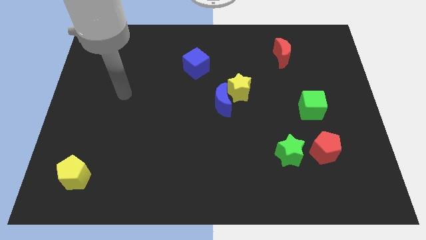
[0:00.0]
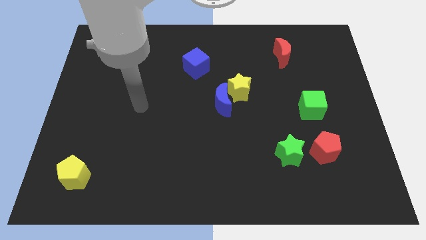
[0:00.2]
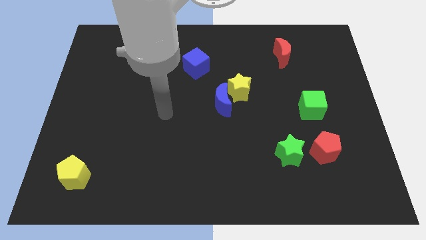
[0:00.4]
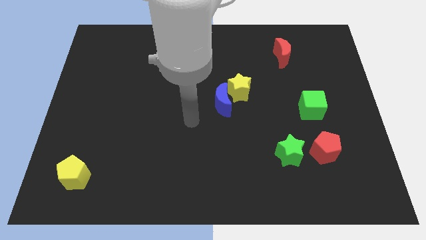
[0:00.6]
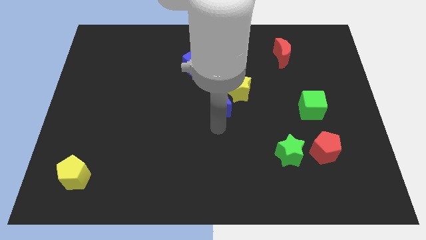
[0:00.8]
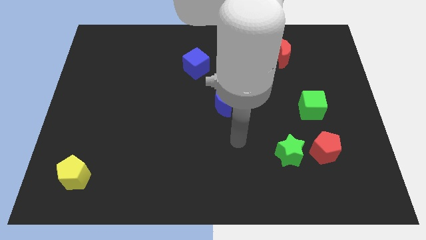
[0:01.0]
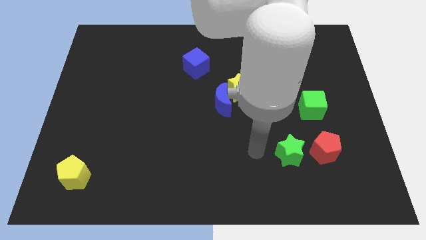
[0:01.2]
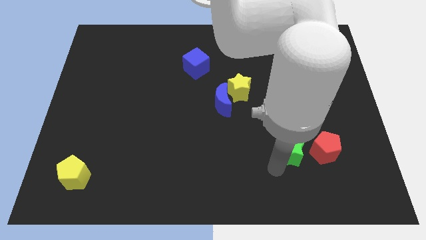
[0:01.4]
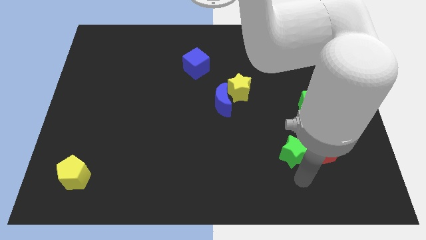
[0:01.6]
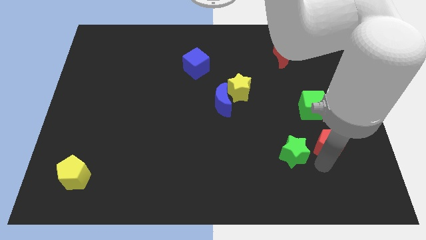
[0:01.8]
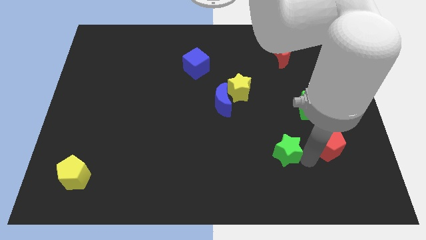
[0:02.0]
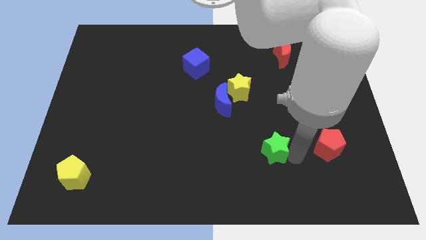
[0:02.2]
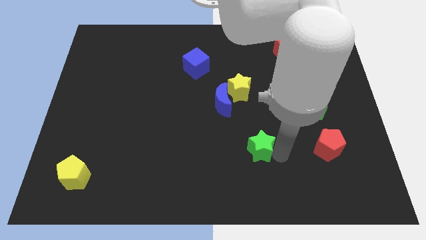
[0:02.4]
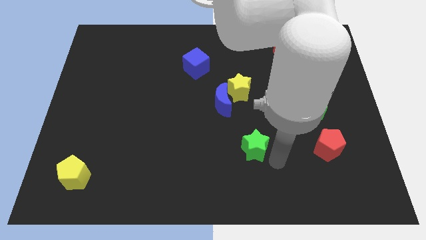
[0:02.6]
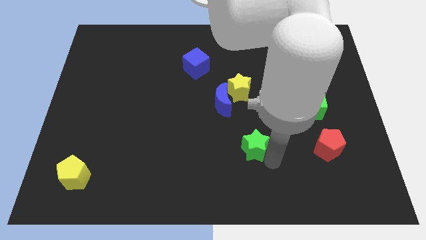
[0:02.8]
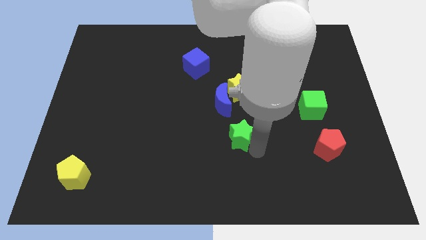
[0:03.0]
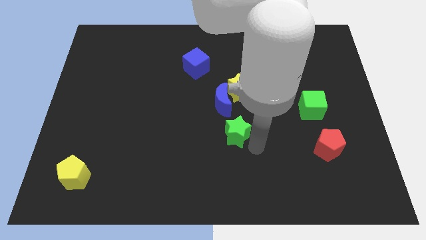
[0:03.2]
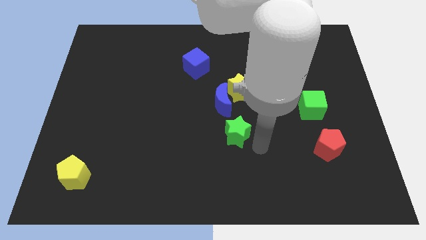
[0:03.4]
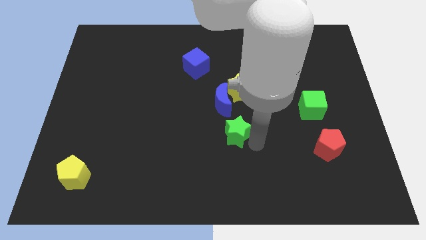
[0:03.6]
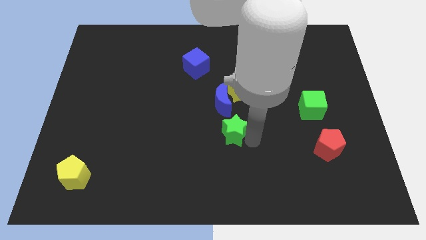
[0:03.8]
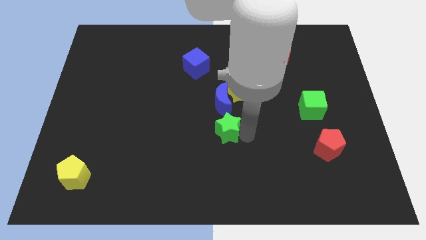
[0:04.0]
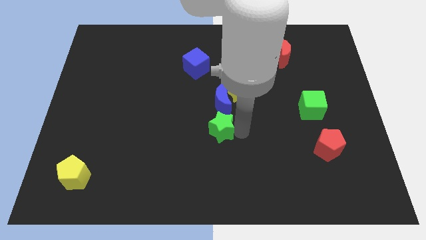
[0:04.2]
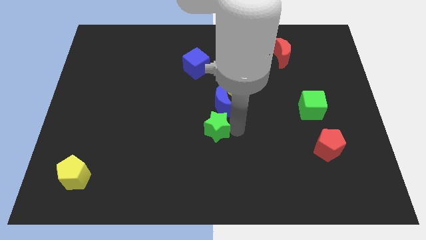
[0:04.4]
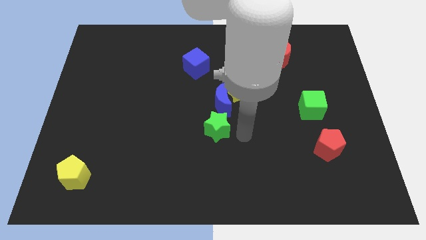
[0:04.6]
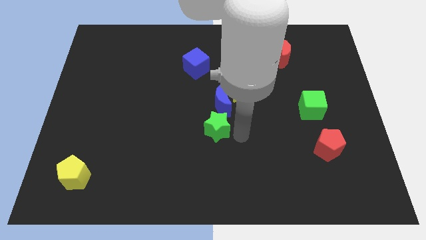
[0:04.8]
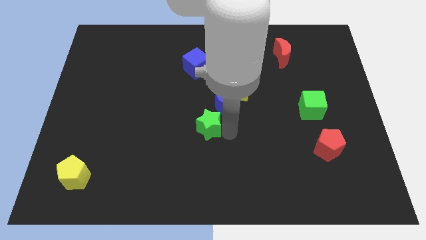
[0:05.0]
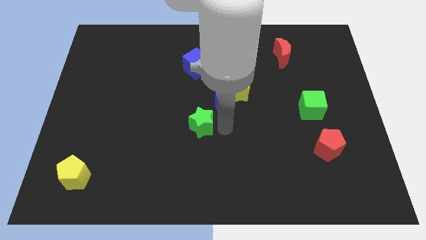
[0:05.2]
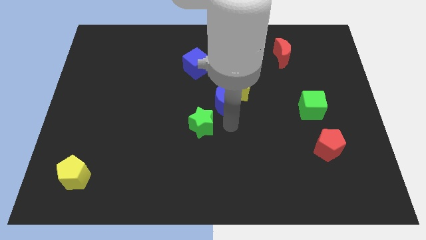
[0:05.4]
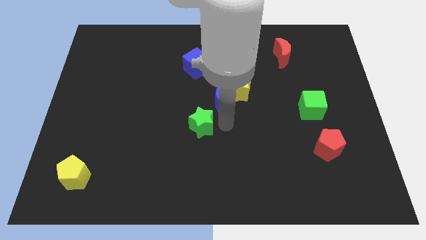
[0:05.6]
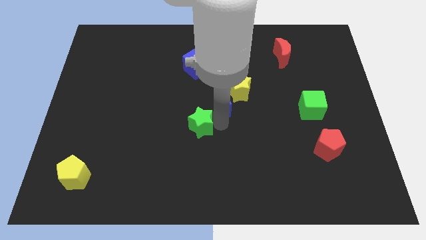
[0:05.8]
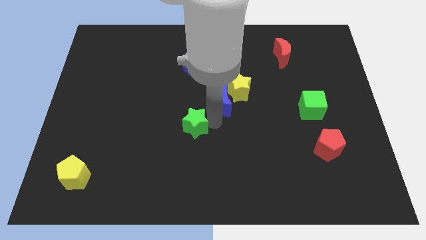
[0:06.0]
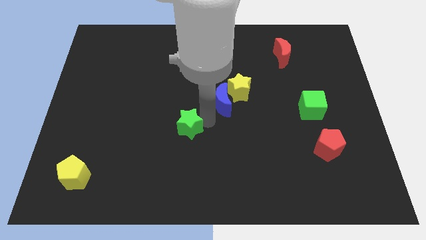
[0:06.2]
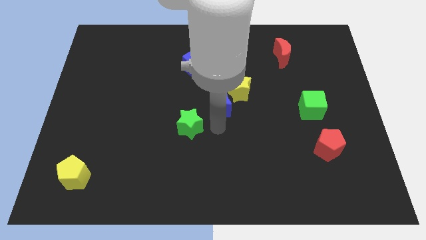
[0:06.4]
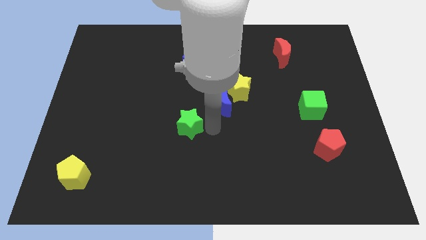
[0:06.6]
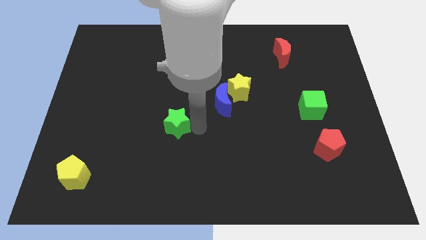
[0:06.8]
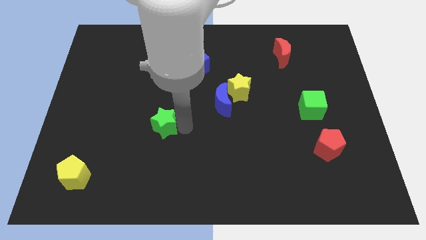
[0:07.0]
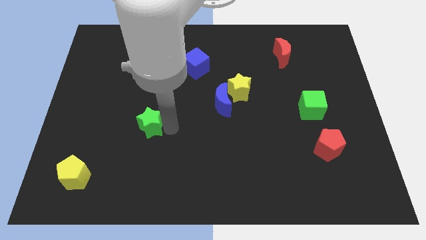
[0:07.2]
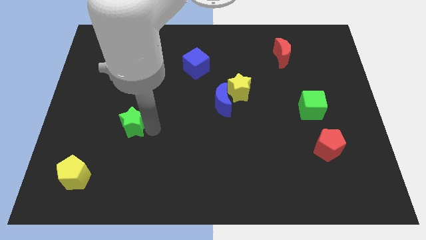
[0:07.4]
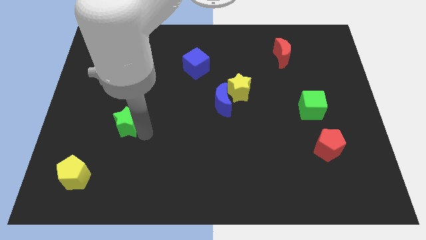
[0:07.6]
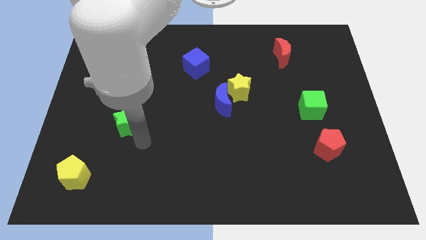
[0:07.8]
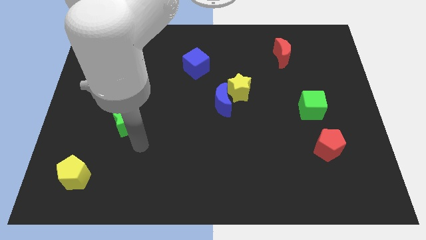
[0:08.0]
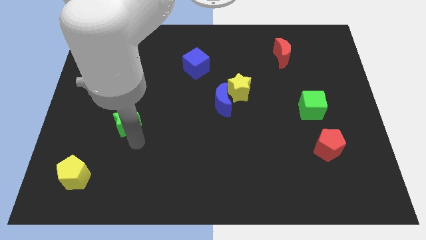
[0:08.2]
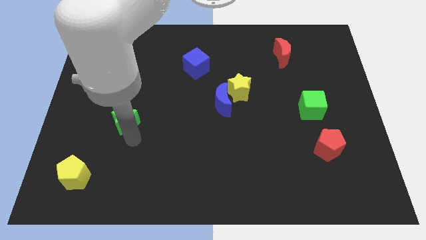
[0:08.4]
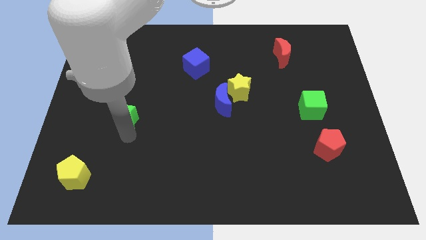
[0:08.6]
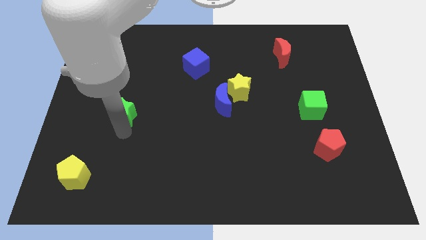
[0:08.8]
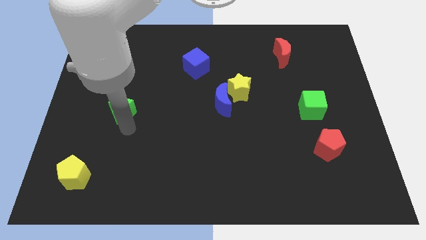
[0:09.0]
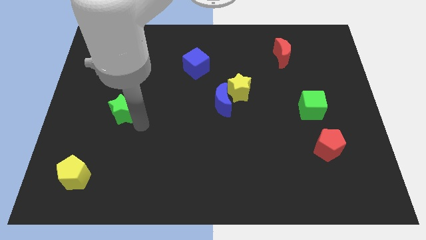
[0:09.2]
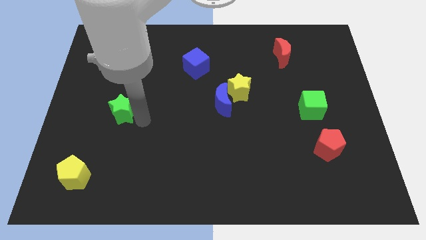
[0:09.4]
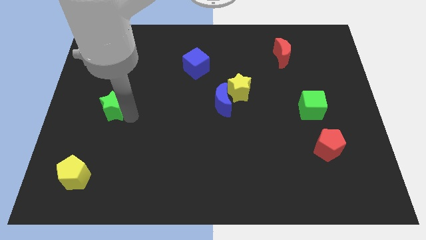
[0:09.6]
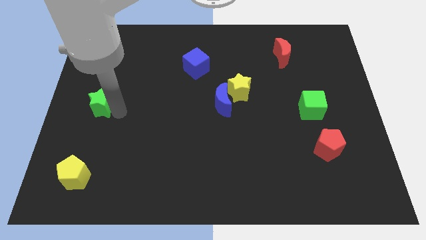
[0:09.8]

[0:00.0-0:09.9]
push the green star to the center left

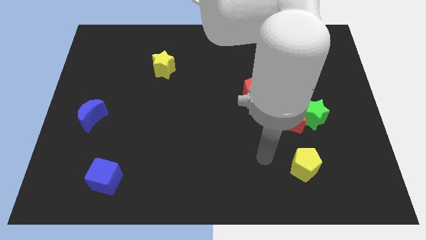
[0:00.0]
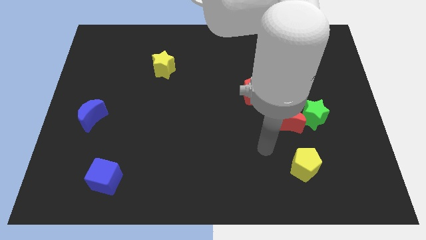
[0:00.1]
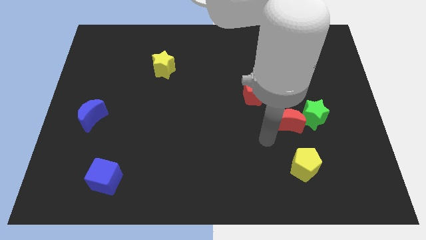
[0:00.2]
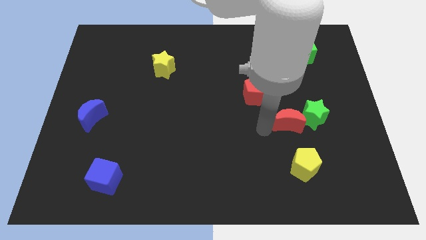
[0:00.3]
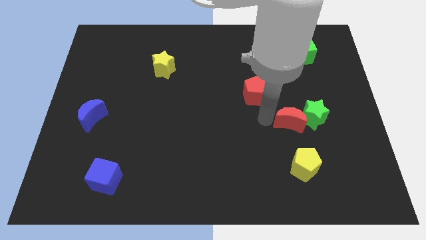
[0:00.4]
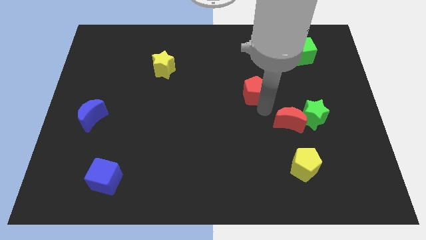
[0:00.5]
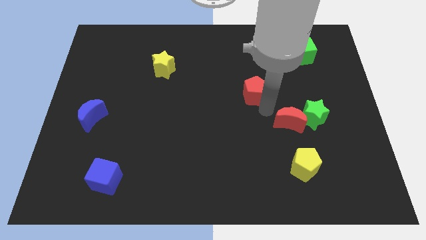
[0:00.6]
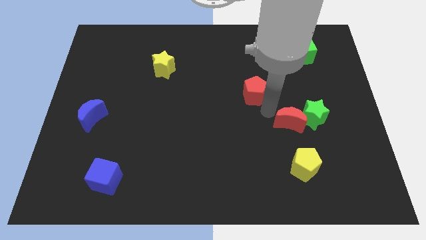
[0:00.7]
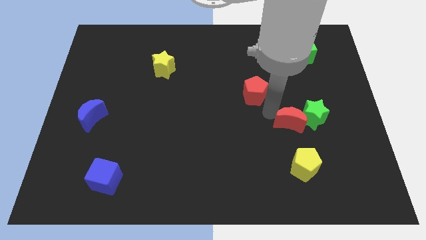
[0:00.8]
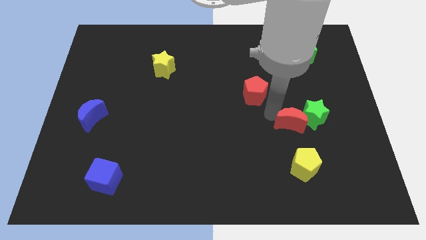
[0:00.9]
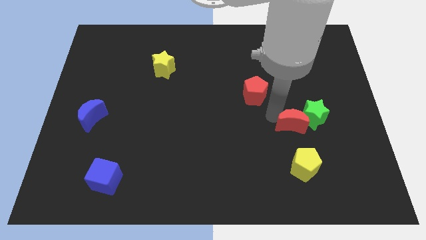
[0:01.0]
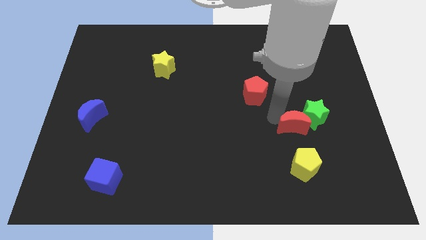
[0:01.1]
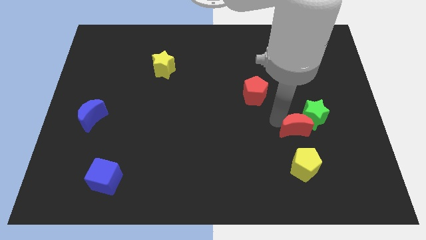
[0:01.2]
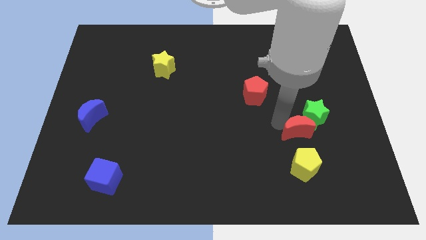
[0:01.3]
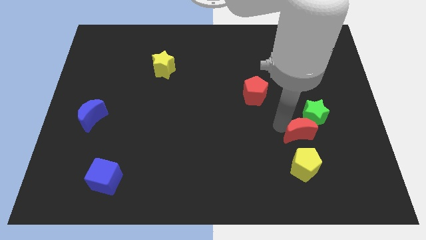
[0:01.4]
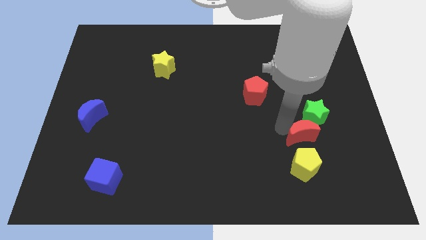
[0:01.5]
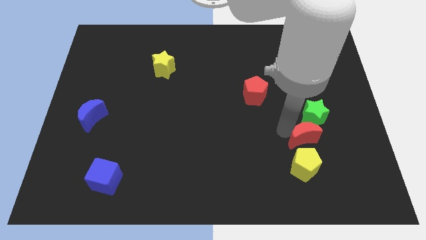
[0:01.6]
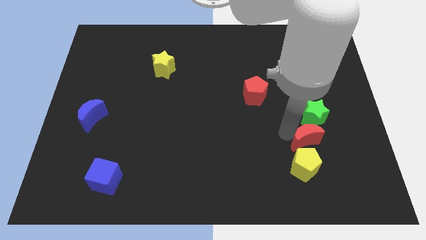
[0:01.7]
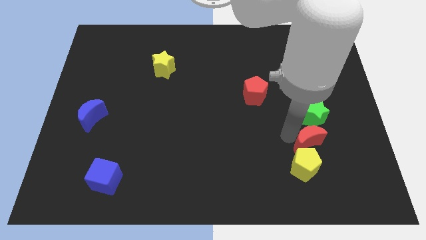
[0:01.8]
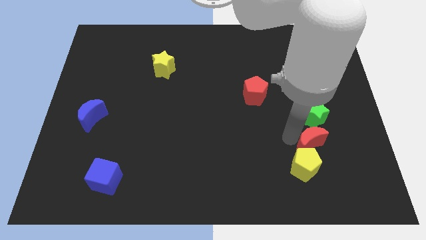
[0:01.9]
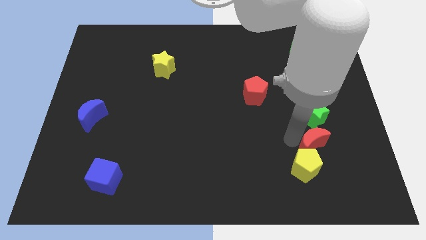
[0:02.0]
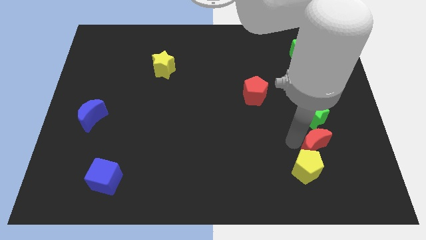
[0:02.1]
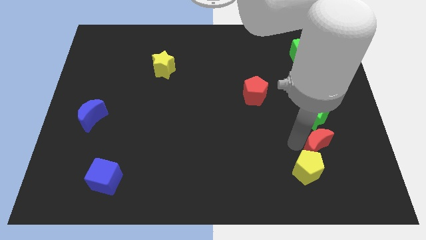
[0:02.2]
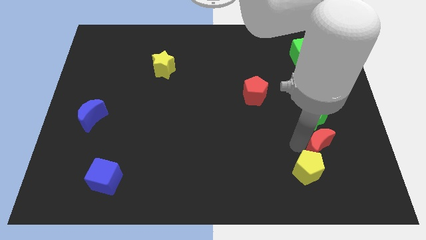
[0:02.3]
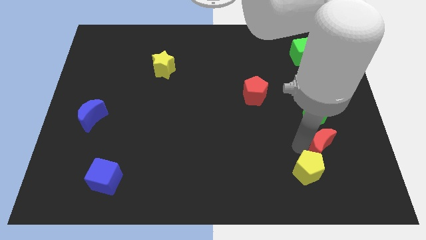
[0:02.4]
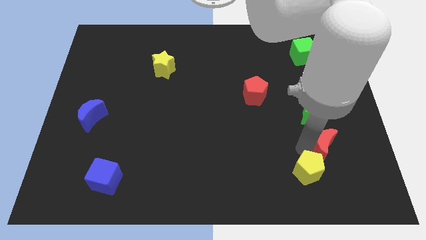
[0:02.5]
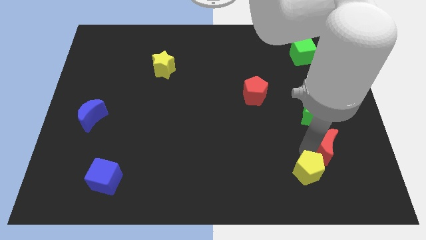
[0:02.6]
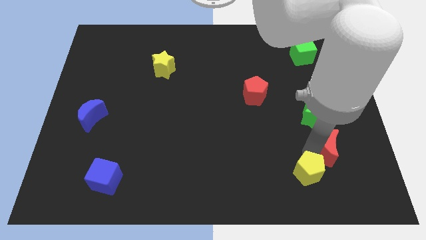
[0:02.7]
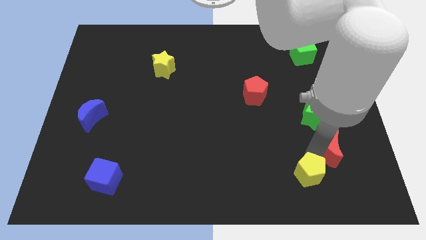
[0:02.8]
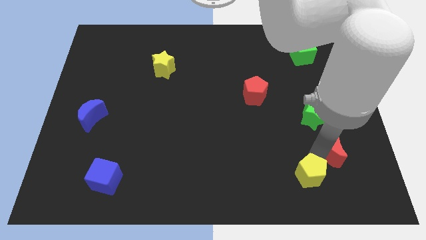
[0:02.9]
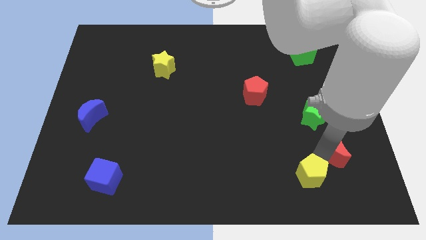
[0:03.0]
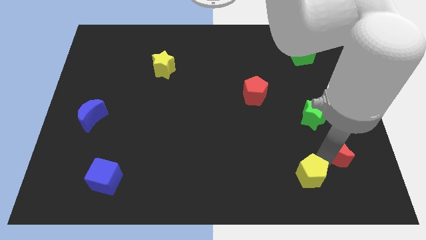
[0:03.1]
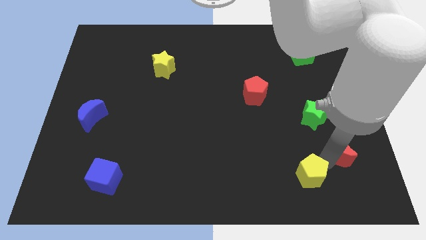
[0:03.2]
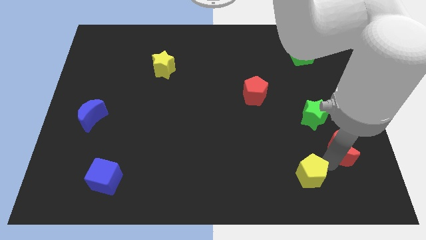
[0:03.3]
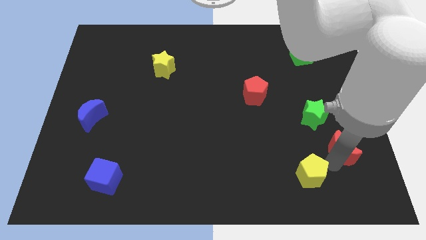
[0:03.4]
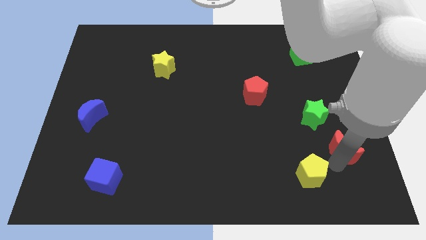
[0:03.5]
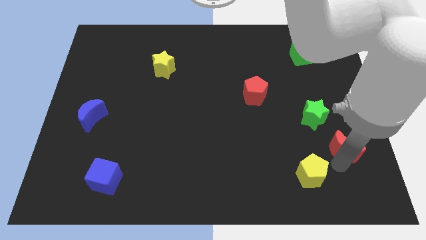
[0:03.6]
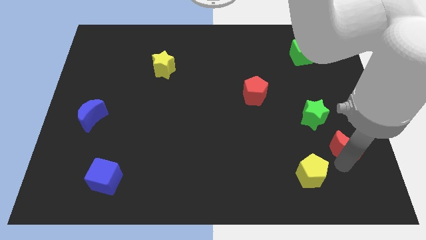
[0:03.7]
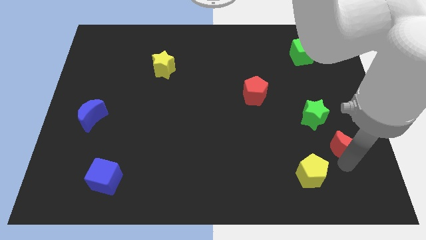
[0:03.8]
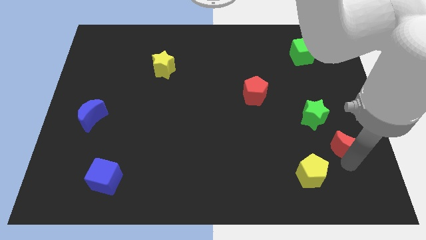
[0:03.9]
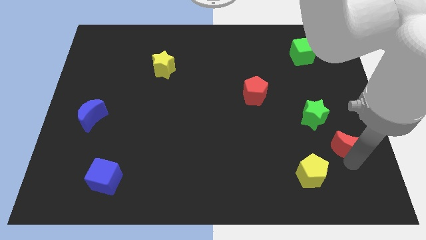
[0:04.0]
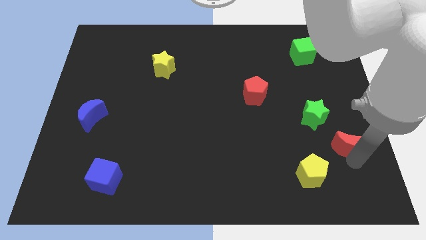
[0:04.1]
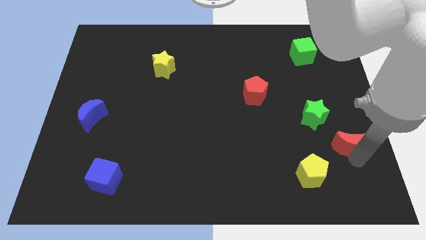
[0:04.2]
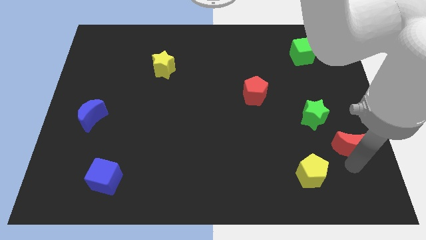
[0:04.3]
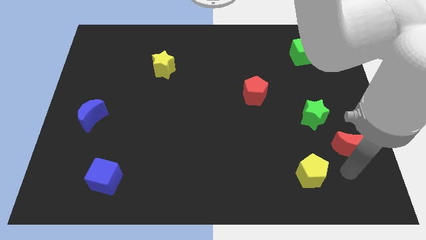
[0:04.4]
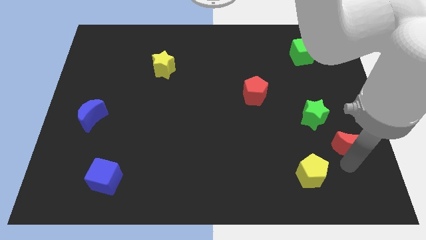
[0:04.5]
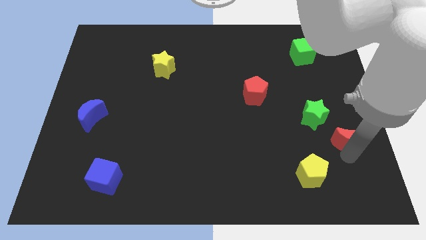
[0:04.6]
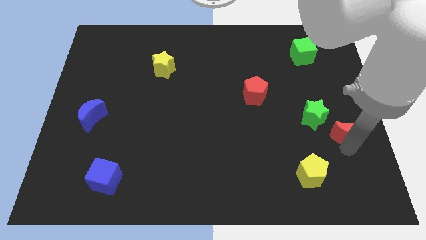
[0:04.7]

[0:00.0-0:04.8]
slide the red moon to the right side
